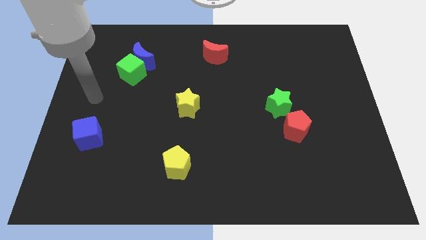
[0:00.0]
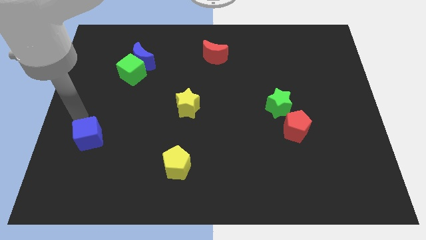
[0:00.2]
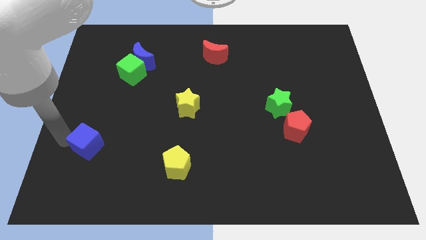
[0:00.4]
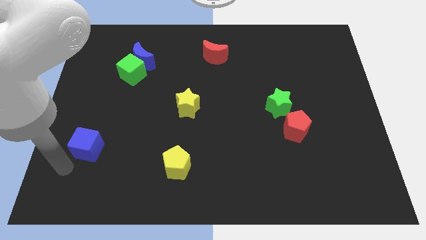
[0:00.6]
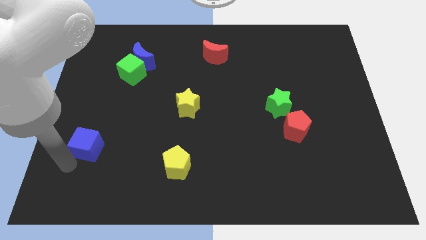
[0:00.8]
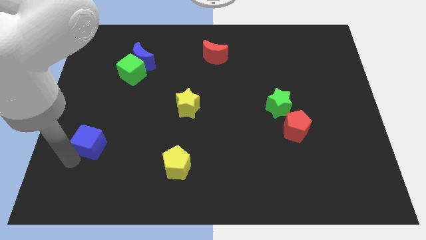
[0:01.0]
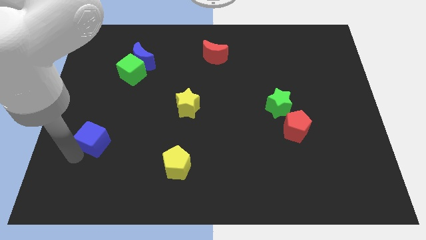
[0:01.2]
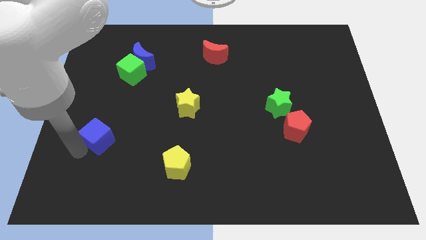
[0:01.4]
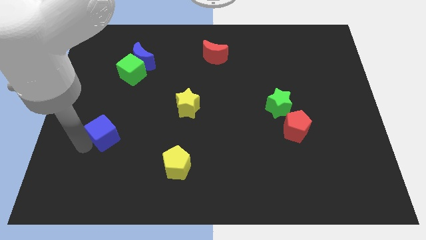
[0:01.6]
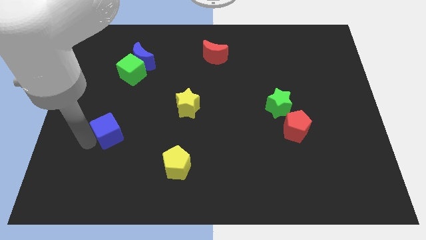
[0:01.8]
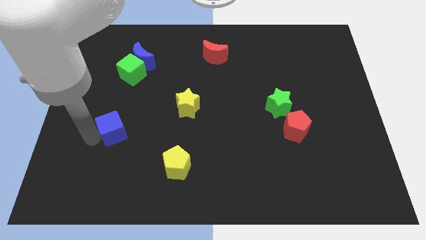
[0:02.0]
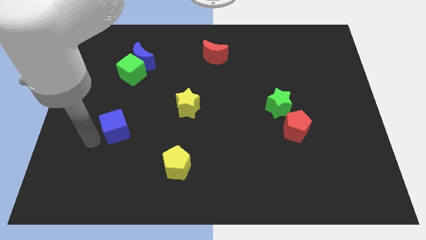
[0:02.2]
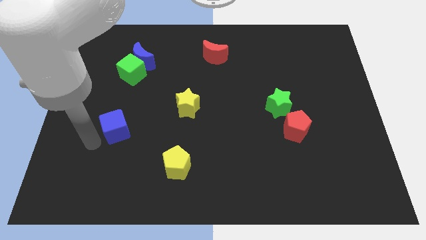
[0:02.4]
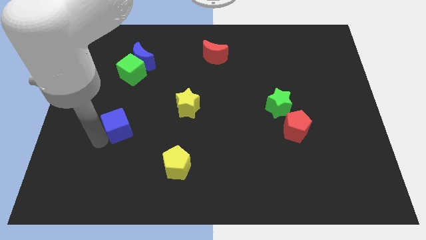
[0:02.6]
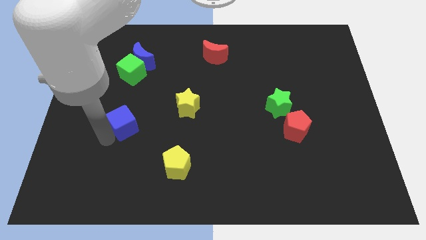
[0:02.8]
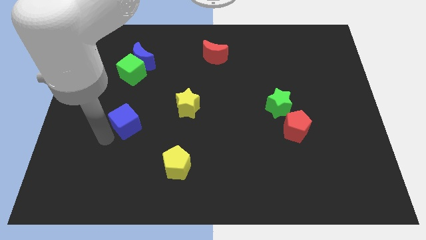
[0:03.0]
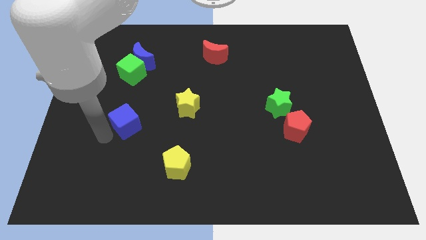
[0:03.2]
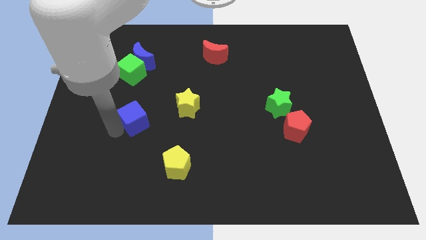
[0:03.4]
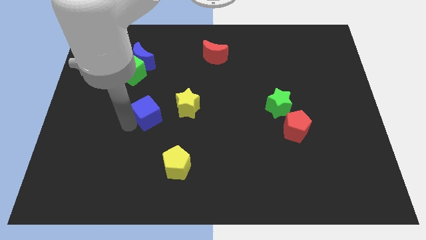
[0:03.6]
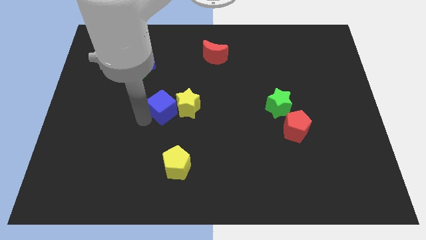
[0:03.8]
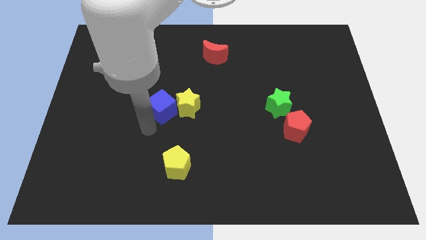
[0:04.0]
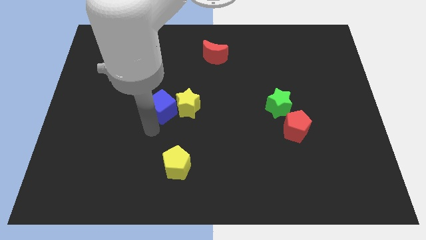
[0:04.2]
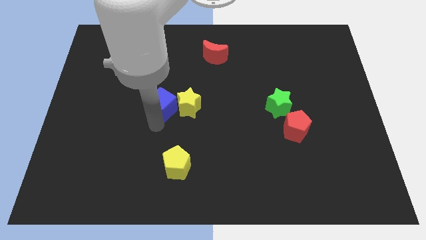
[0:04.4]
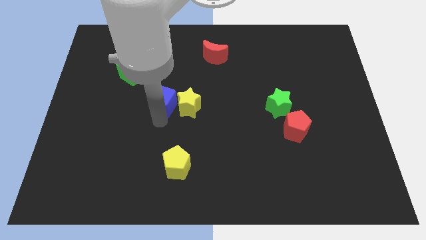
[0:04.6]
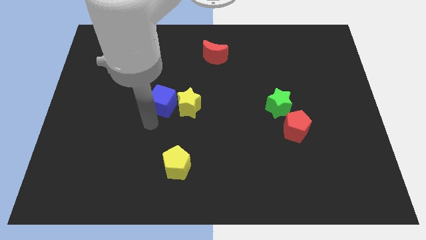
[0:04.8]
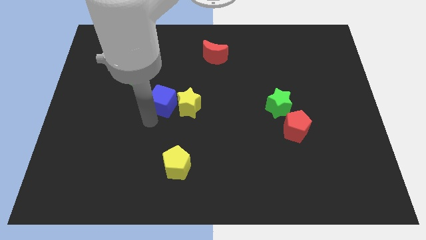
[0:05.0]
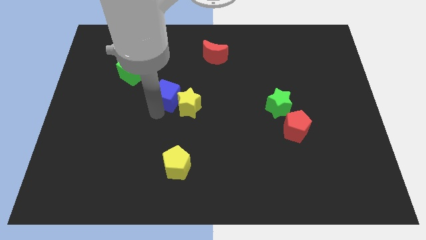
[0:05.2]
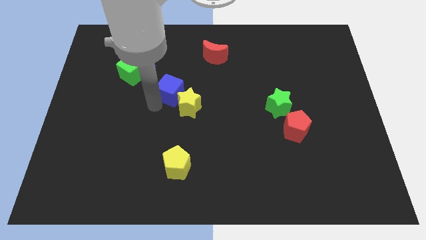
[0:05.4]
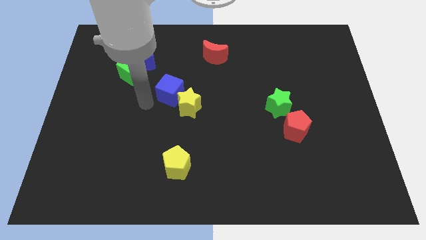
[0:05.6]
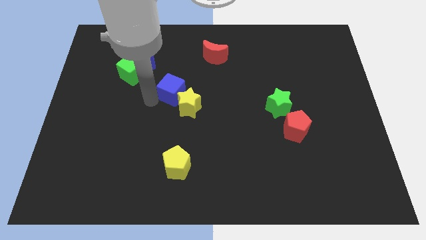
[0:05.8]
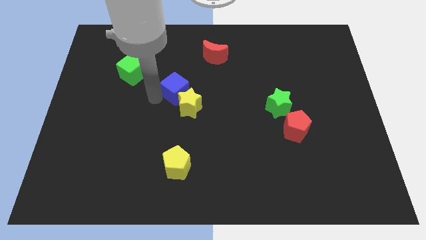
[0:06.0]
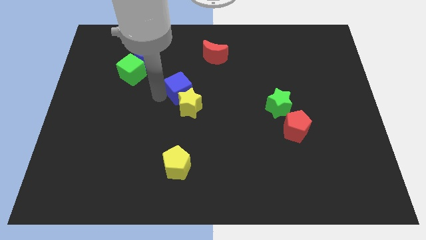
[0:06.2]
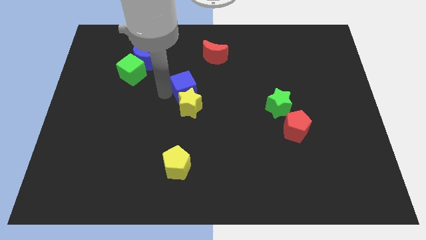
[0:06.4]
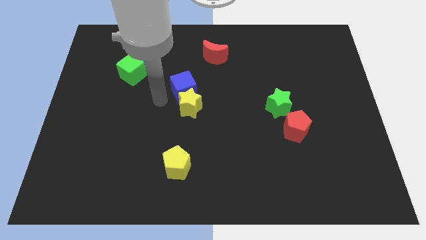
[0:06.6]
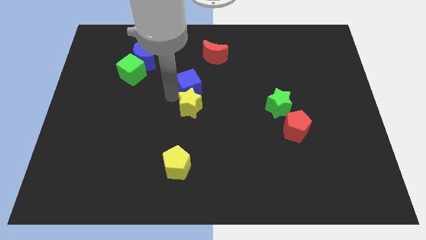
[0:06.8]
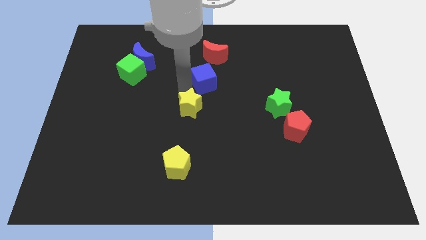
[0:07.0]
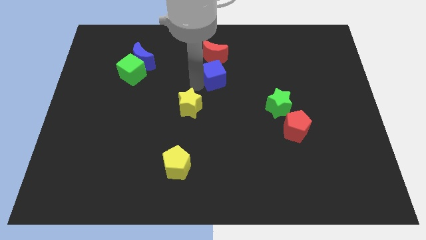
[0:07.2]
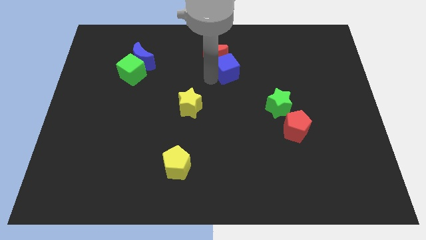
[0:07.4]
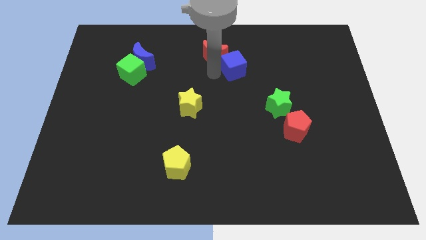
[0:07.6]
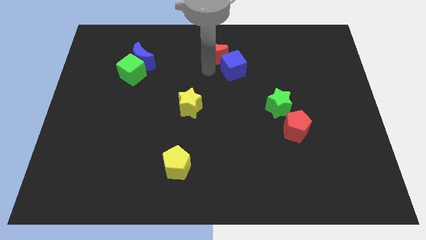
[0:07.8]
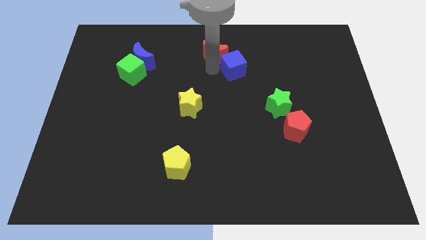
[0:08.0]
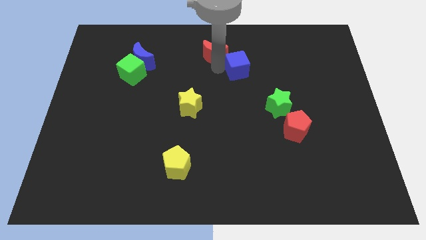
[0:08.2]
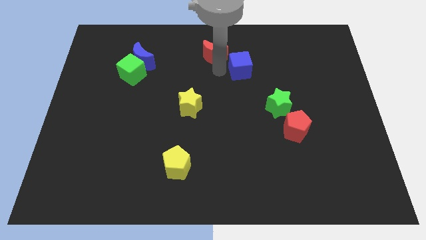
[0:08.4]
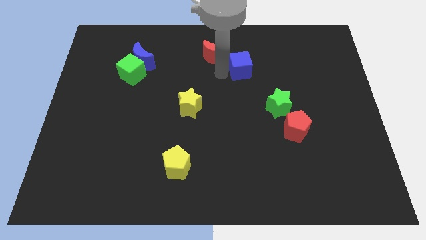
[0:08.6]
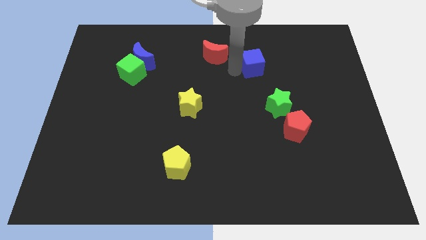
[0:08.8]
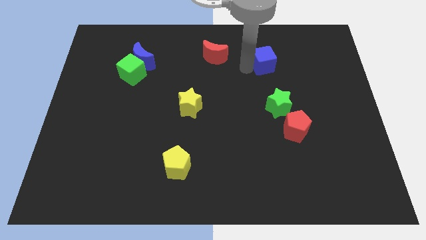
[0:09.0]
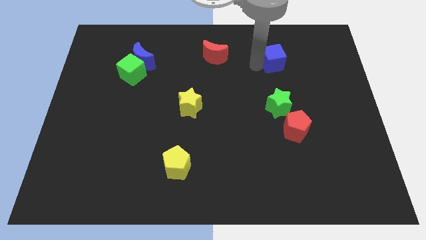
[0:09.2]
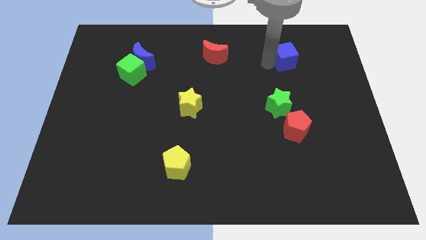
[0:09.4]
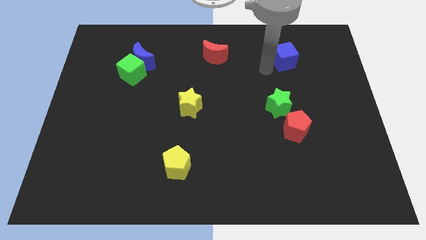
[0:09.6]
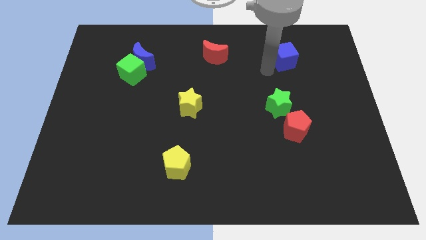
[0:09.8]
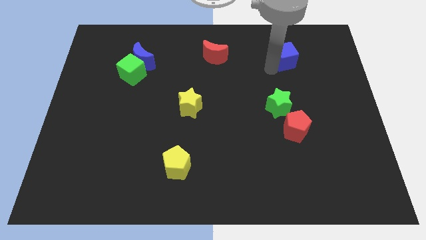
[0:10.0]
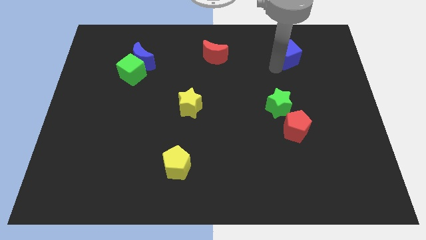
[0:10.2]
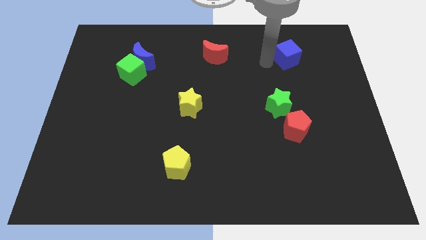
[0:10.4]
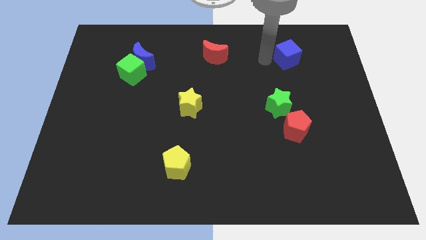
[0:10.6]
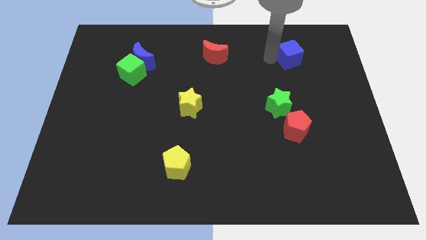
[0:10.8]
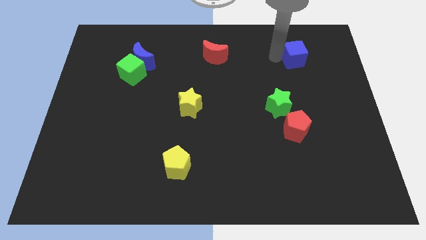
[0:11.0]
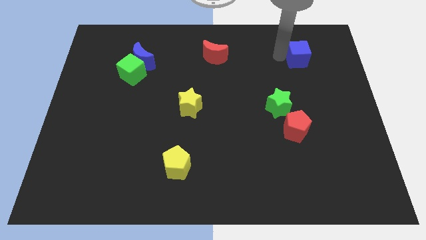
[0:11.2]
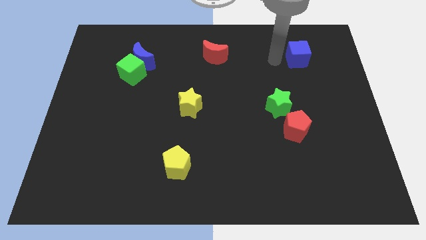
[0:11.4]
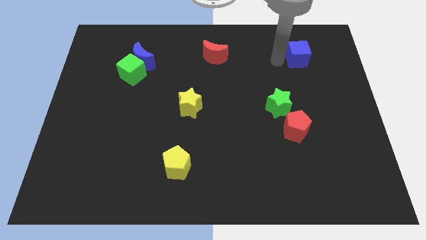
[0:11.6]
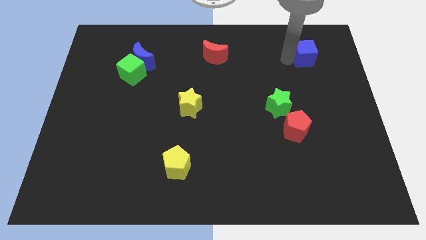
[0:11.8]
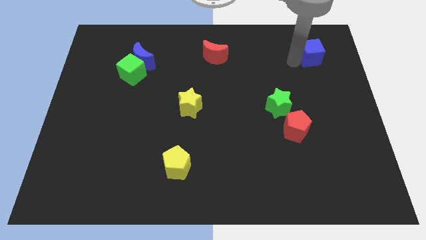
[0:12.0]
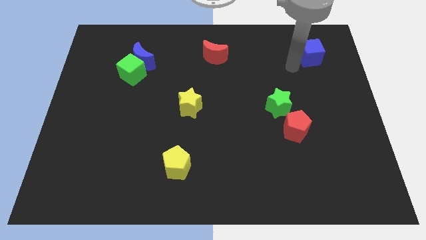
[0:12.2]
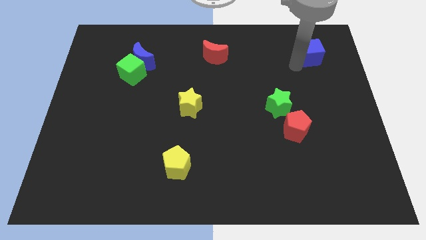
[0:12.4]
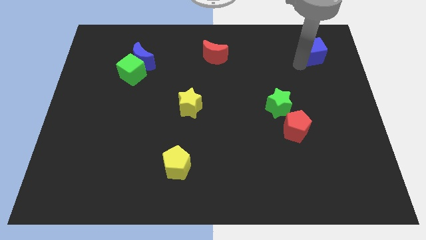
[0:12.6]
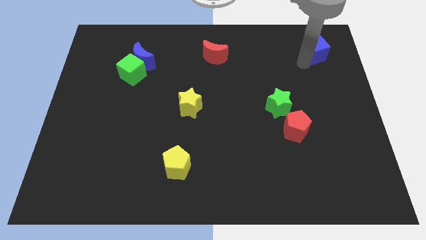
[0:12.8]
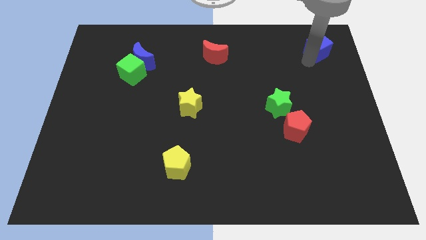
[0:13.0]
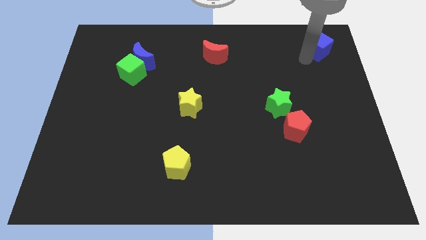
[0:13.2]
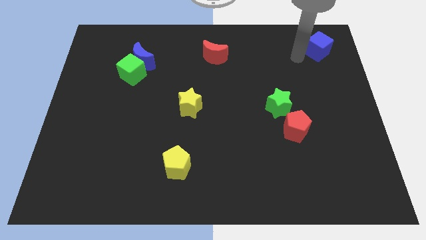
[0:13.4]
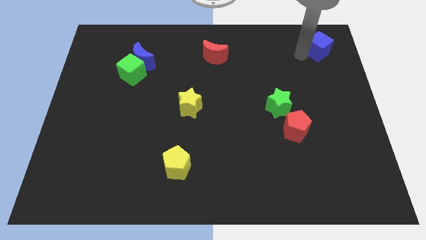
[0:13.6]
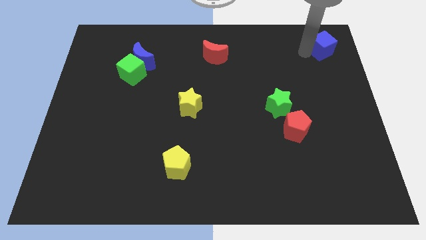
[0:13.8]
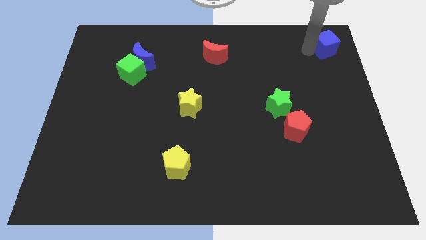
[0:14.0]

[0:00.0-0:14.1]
slide the blue cube to the top right of the board
